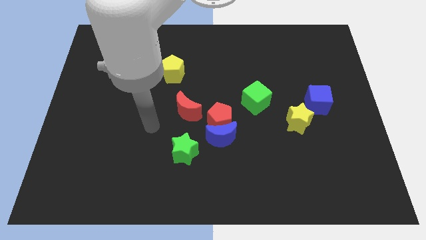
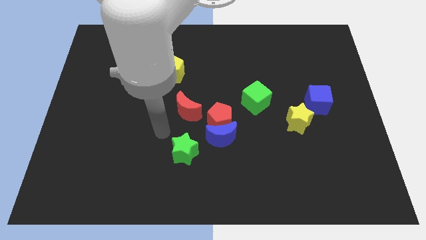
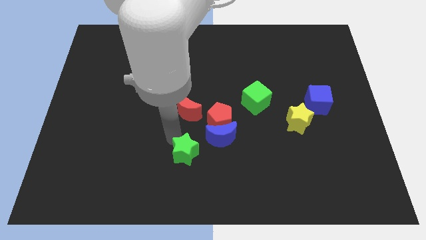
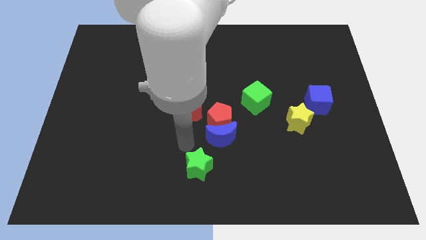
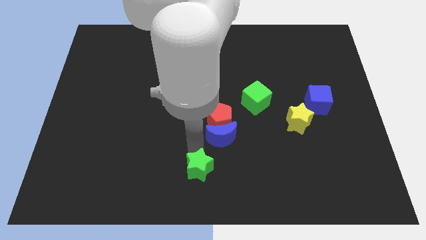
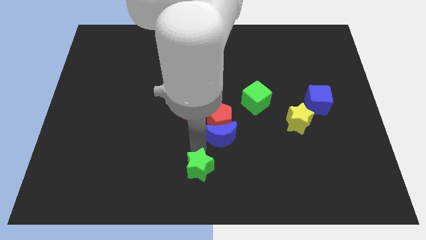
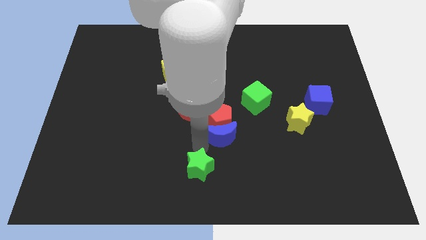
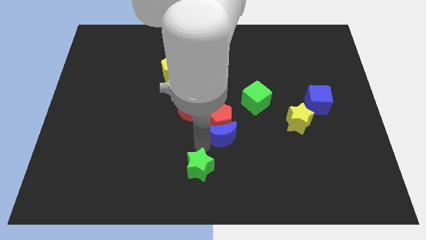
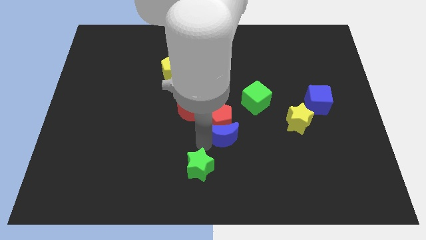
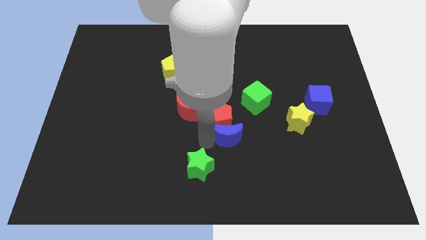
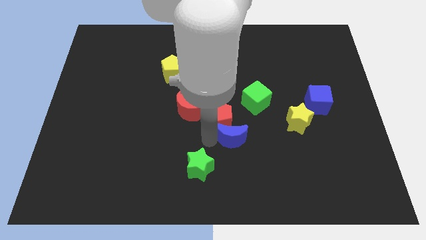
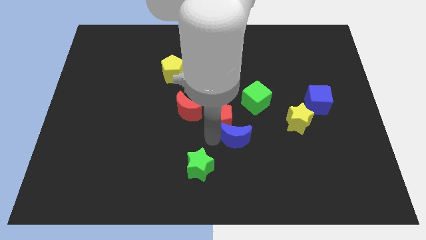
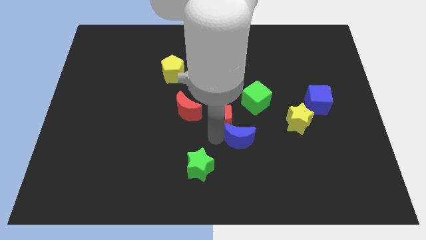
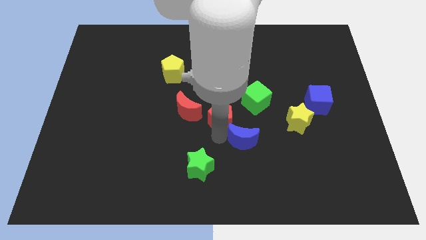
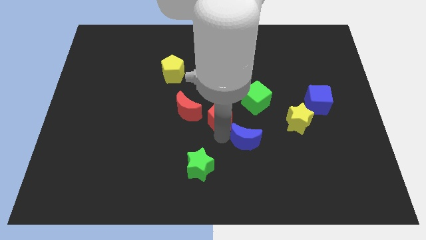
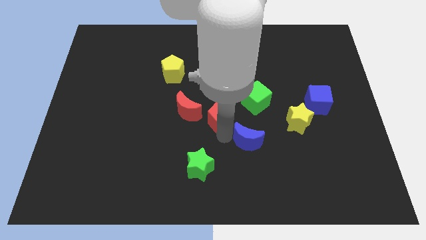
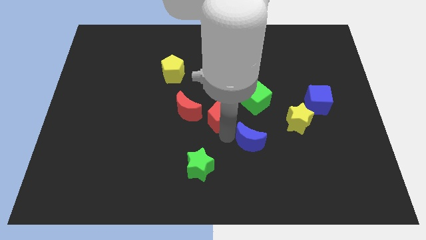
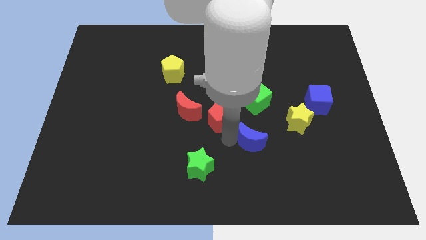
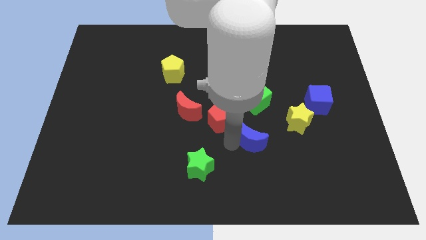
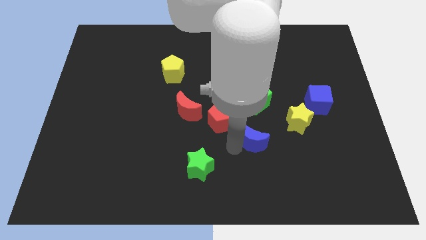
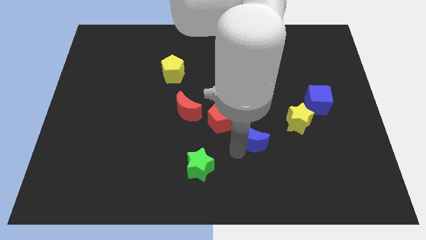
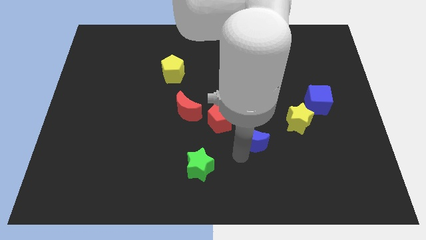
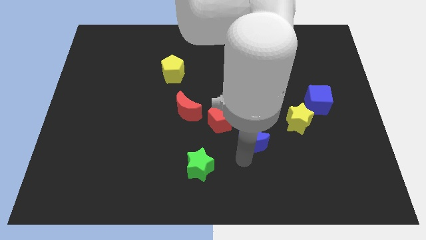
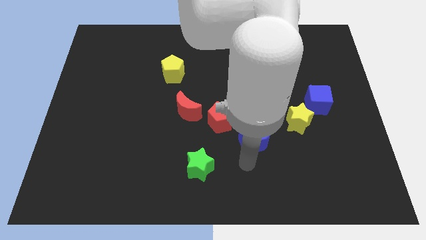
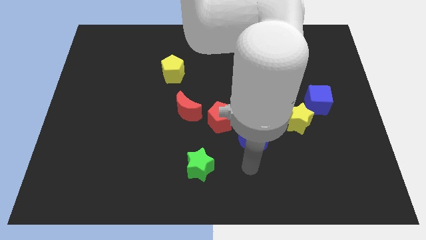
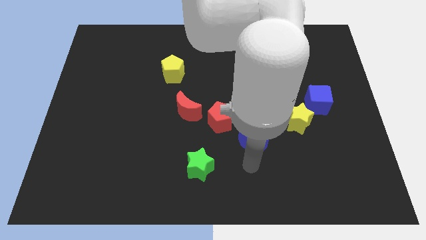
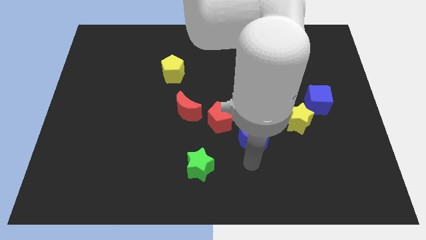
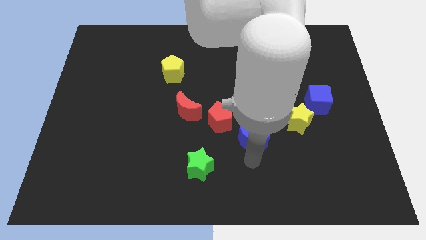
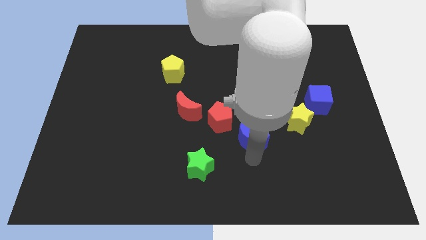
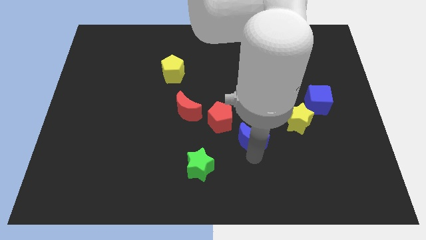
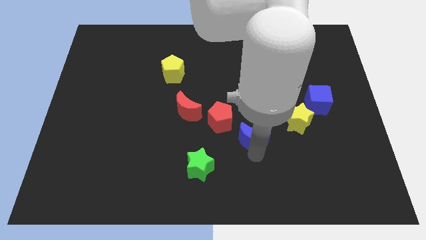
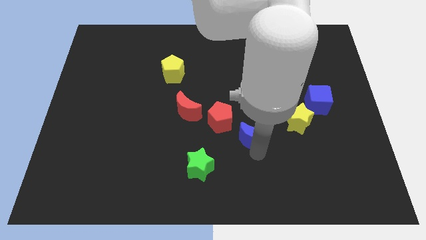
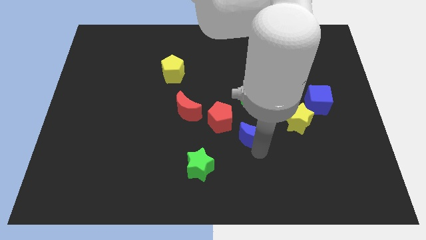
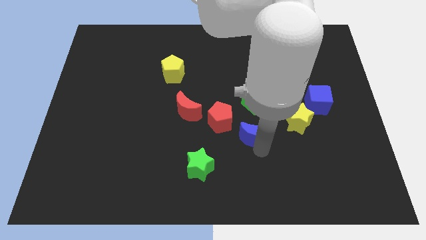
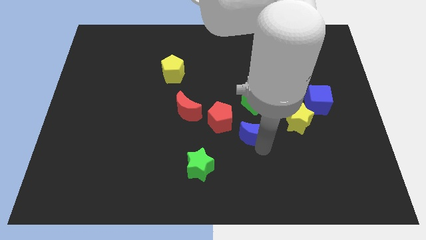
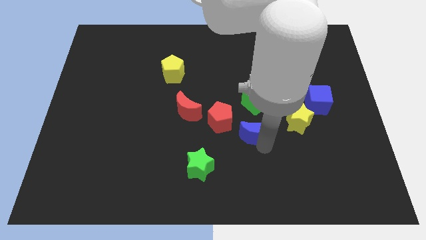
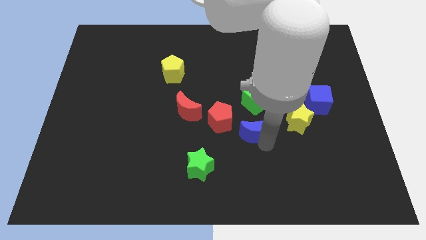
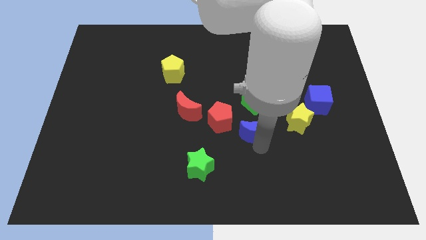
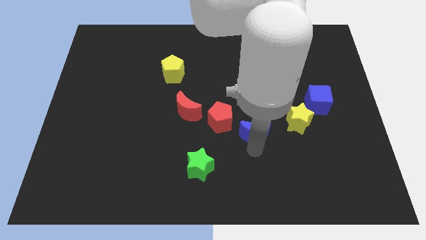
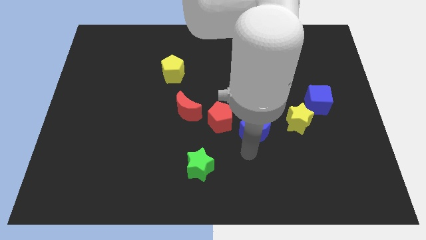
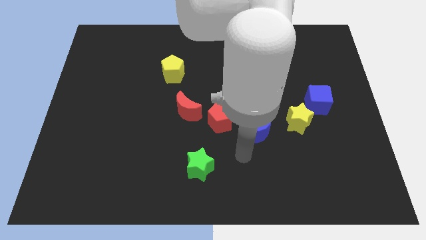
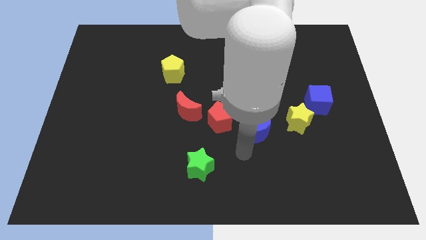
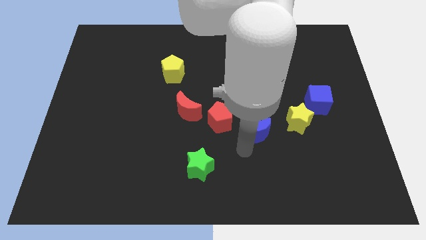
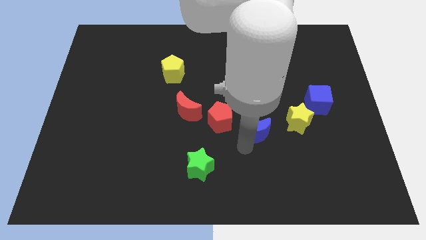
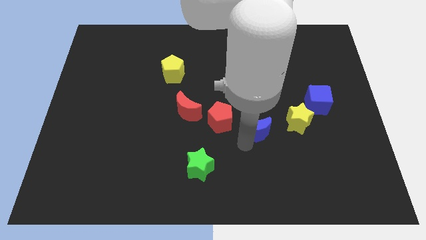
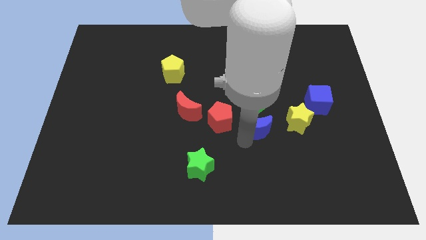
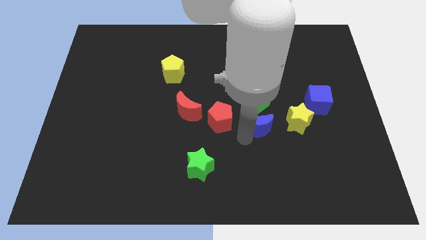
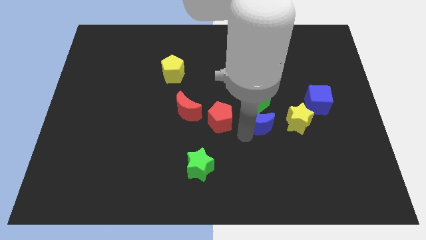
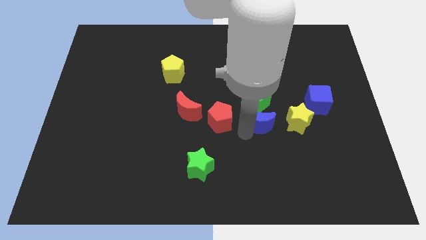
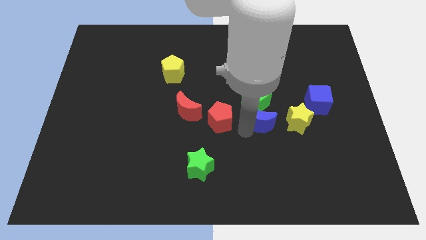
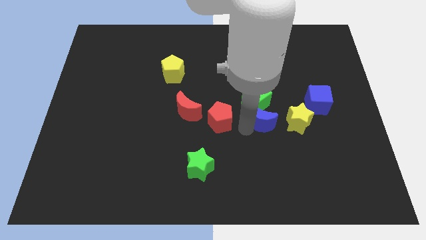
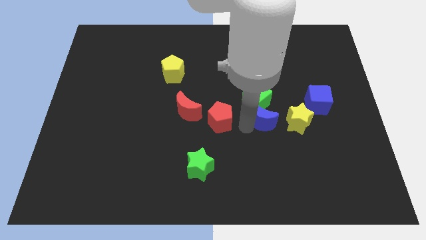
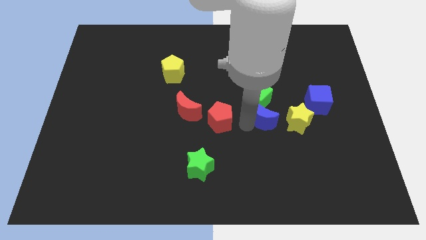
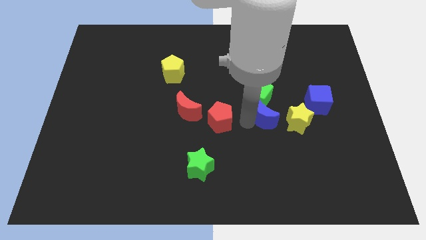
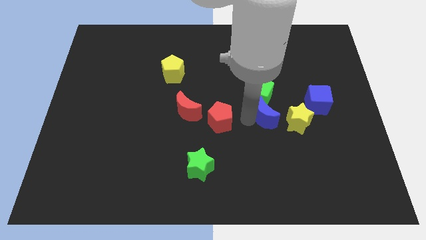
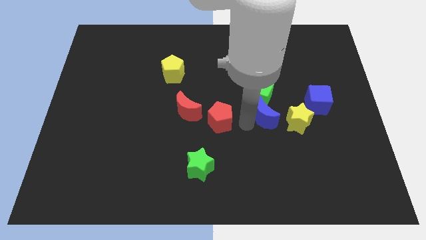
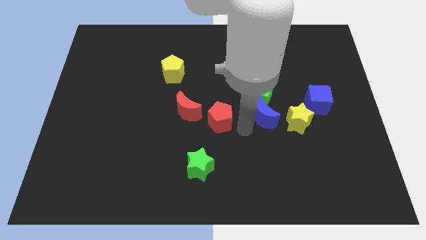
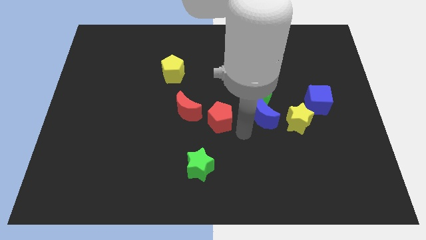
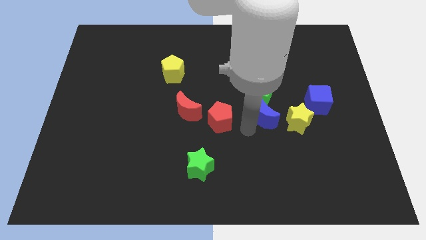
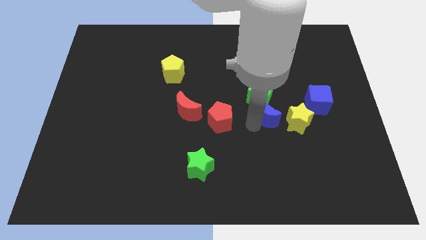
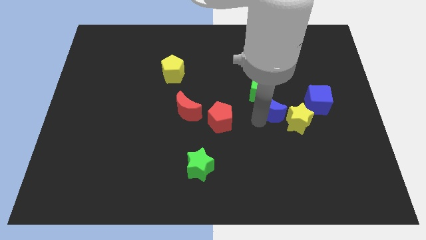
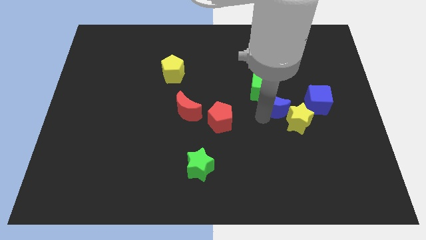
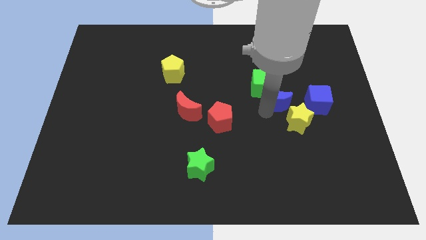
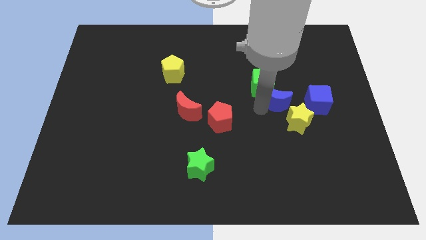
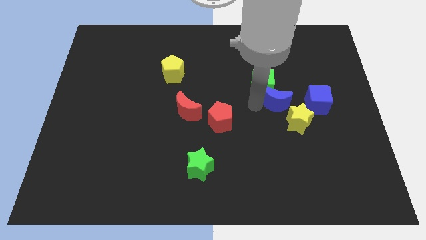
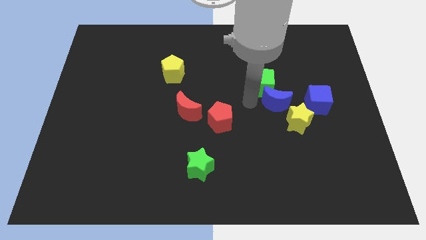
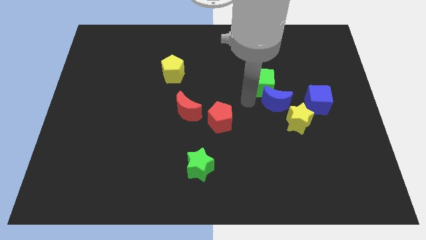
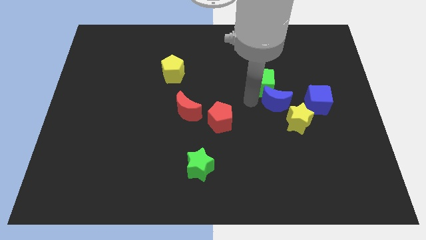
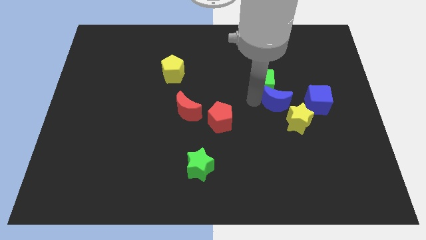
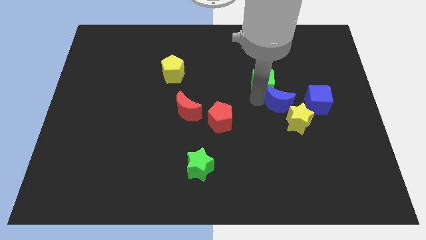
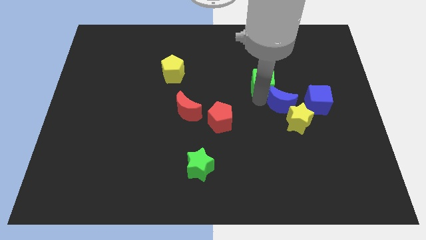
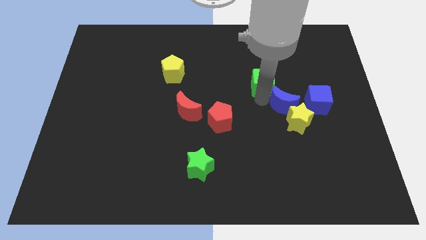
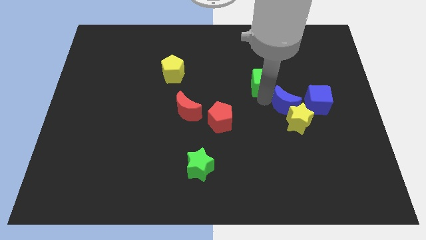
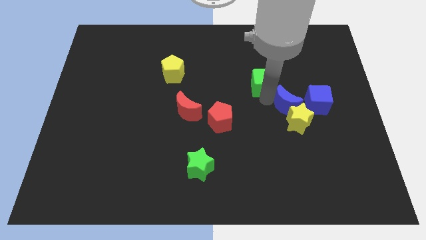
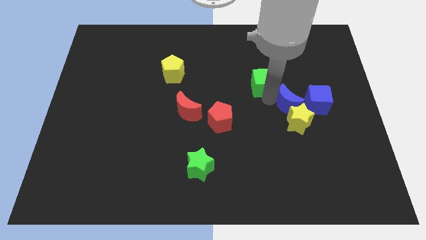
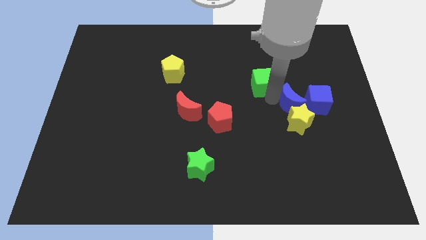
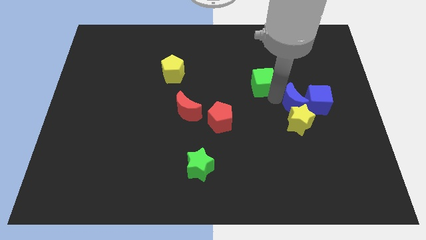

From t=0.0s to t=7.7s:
move the blue moon towards the blue cube

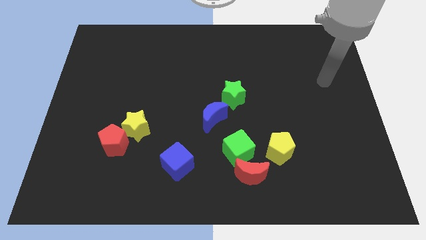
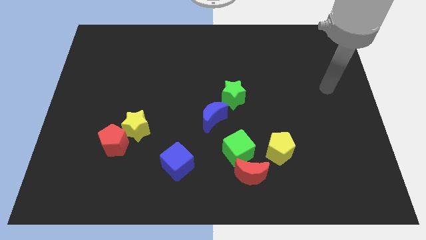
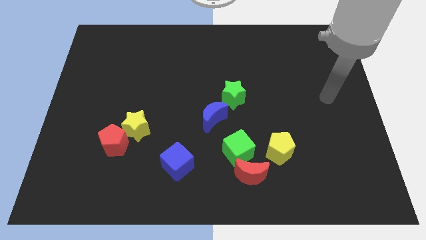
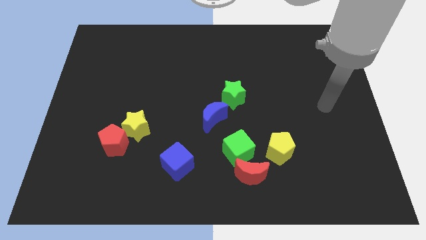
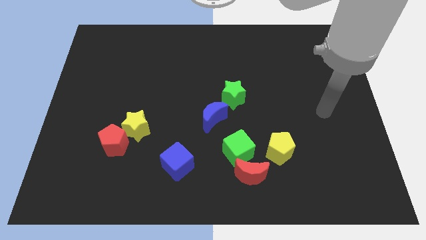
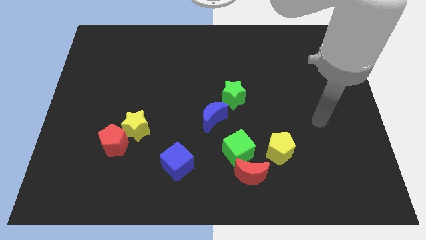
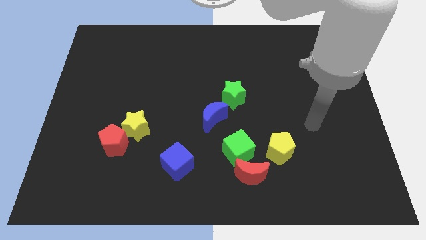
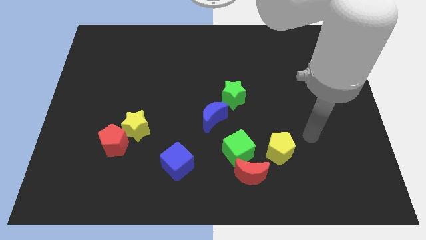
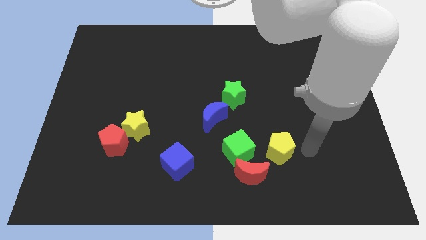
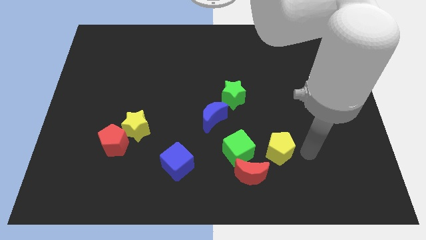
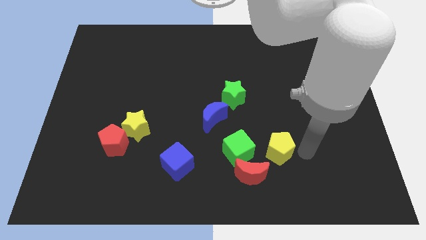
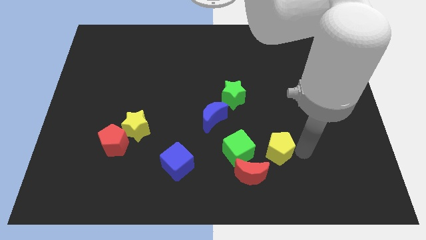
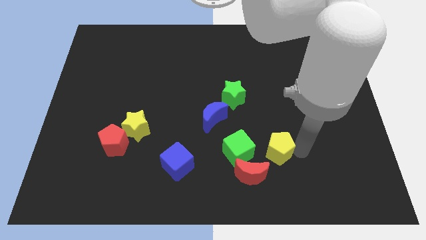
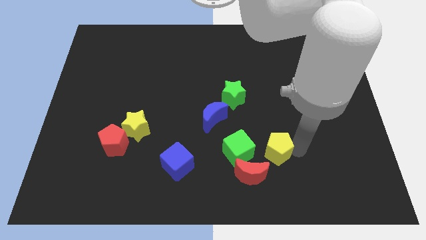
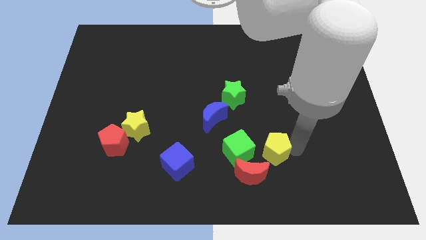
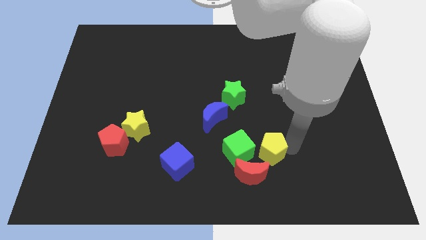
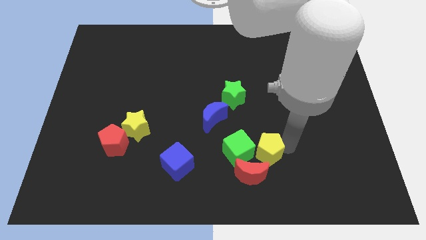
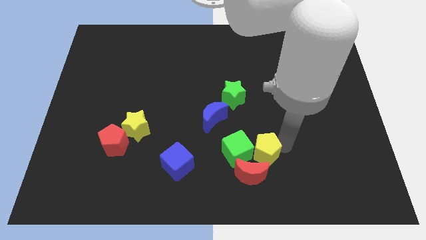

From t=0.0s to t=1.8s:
slide the yellow pentagon to the green cube
